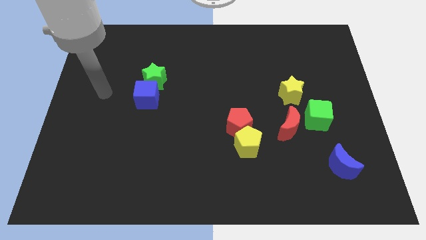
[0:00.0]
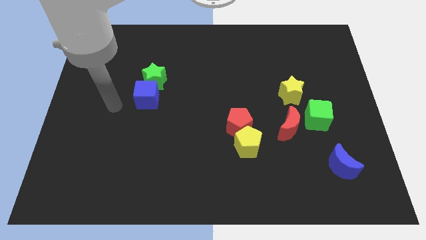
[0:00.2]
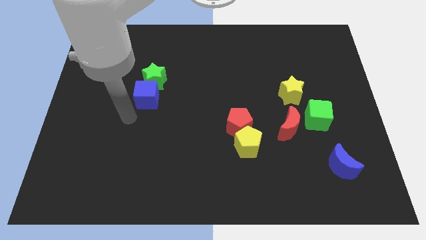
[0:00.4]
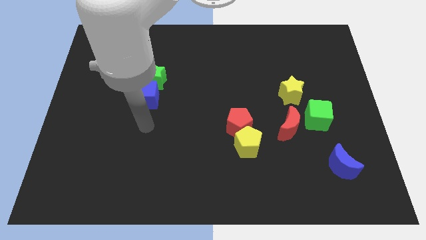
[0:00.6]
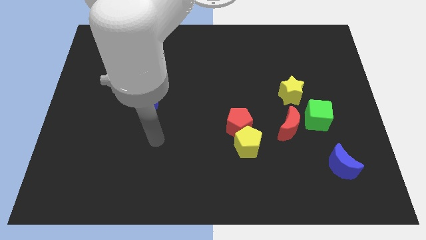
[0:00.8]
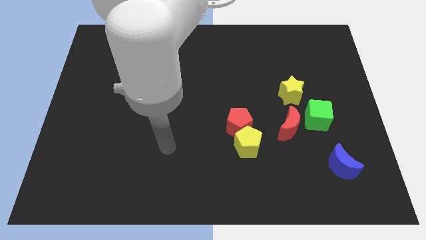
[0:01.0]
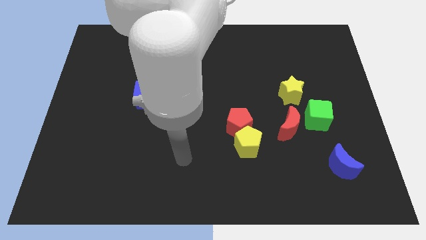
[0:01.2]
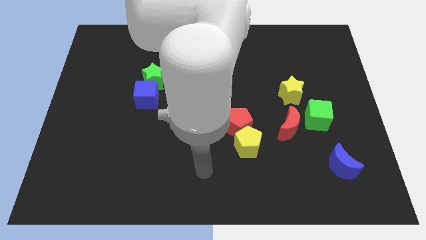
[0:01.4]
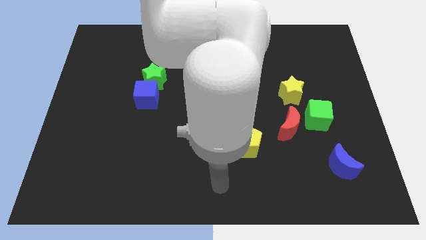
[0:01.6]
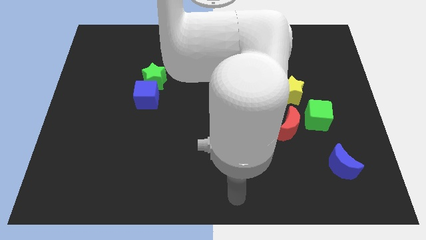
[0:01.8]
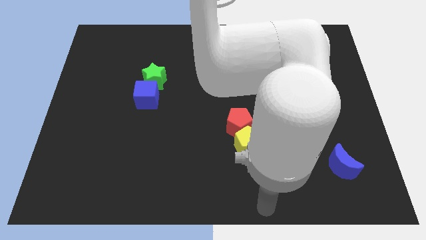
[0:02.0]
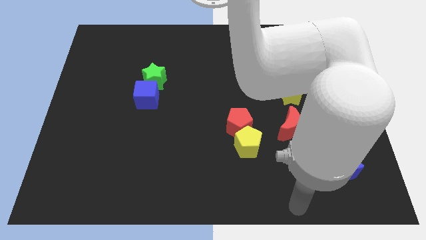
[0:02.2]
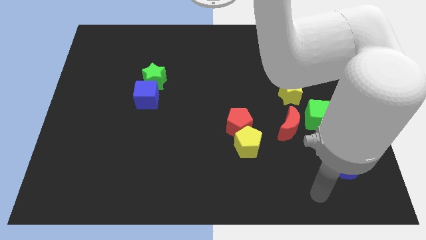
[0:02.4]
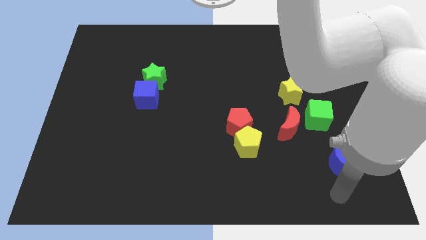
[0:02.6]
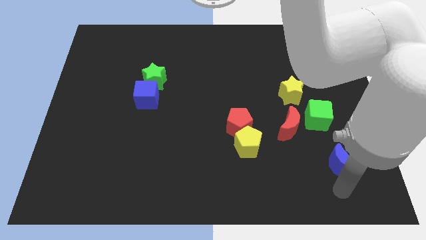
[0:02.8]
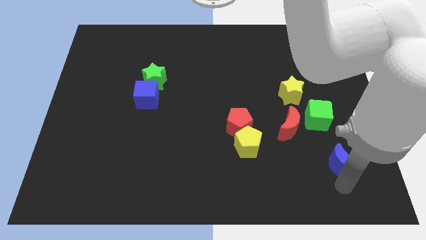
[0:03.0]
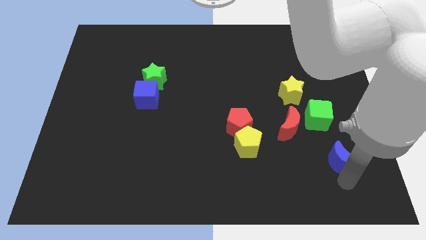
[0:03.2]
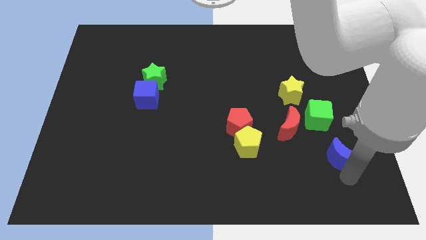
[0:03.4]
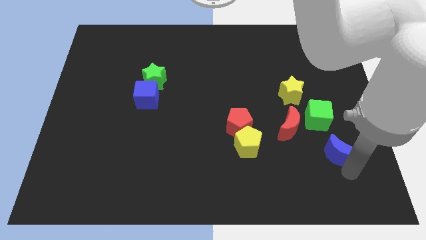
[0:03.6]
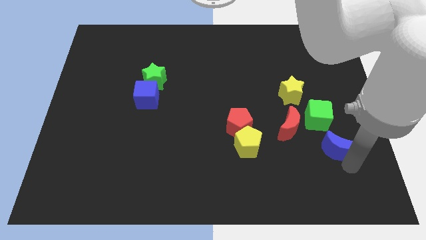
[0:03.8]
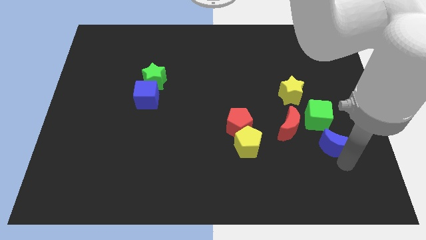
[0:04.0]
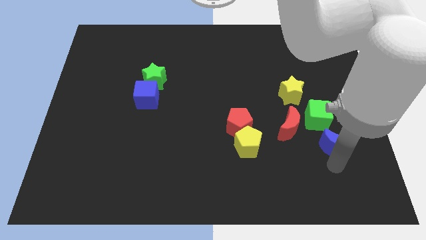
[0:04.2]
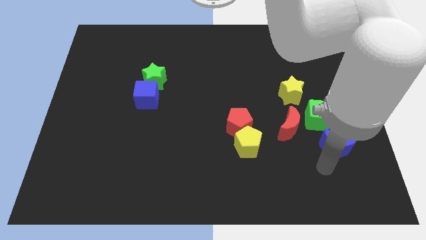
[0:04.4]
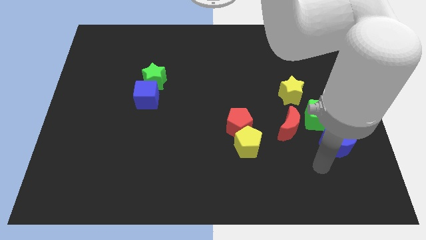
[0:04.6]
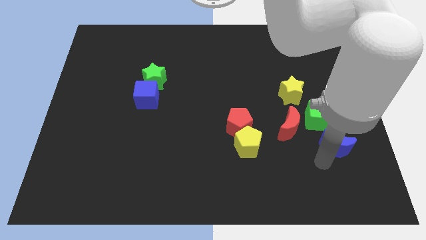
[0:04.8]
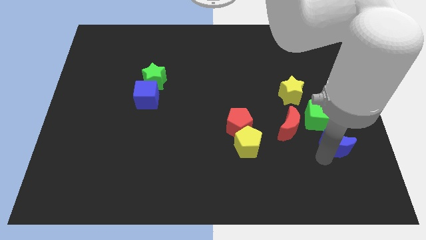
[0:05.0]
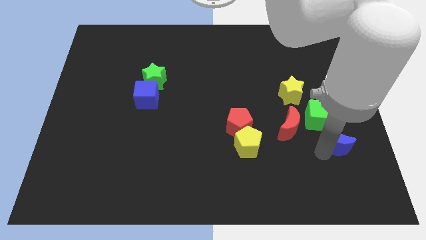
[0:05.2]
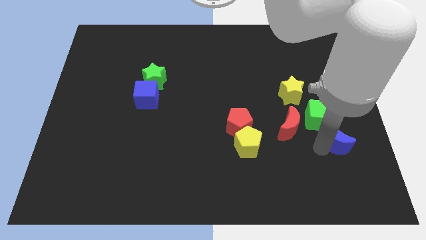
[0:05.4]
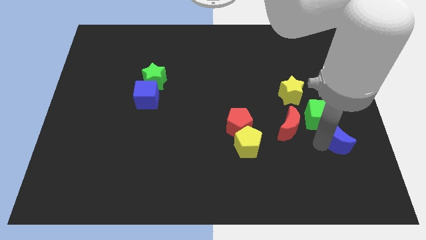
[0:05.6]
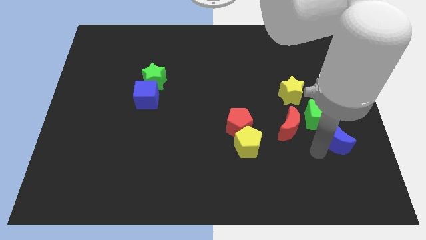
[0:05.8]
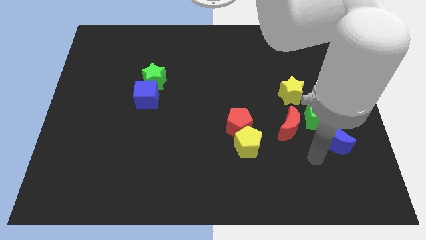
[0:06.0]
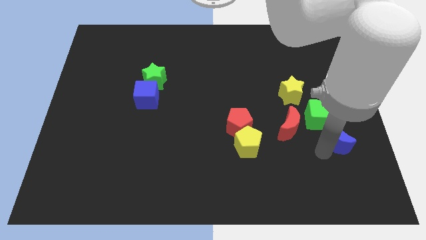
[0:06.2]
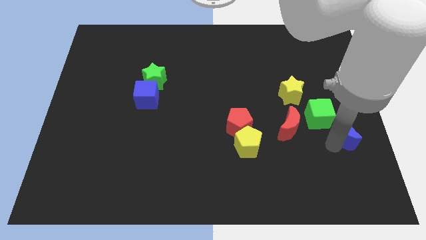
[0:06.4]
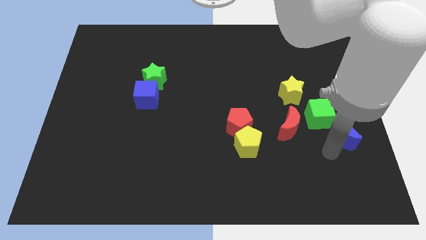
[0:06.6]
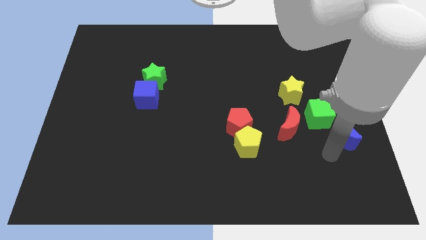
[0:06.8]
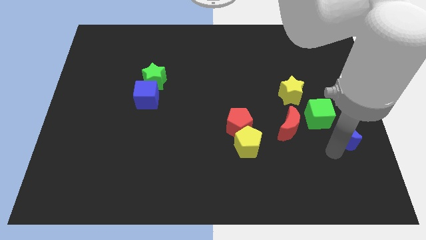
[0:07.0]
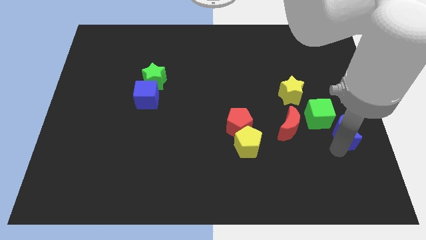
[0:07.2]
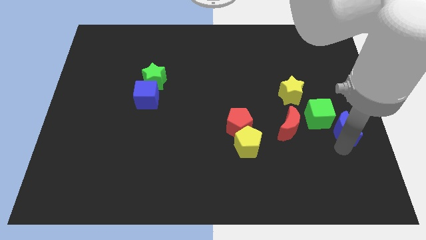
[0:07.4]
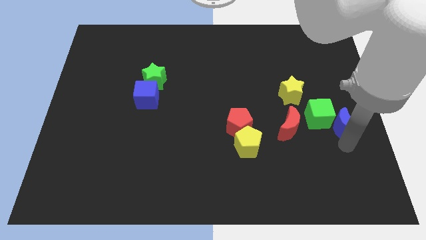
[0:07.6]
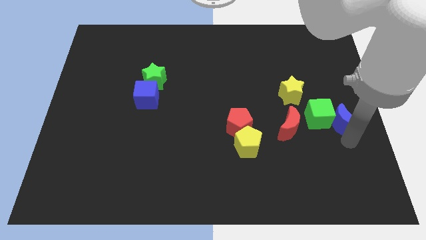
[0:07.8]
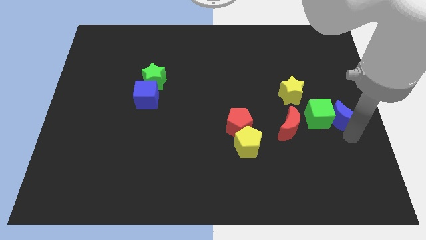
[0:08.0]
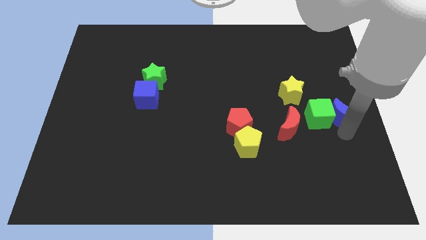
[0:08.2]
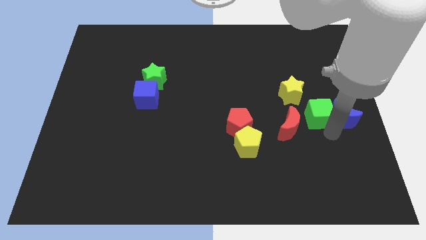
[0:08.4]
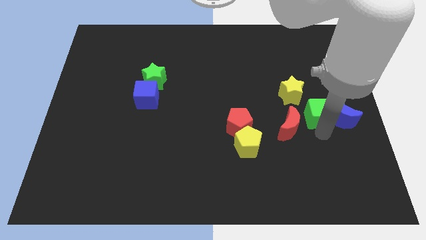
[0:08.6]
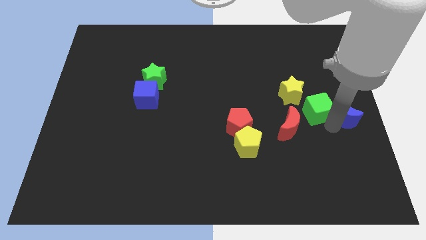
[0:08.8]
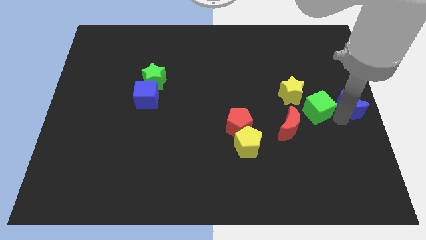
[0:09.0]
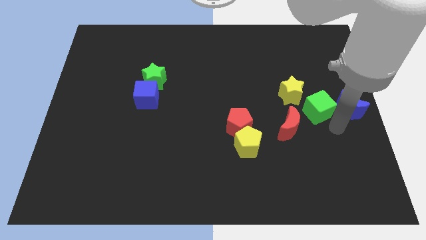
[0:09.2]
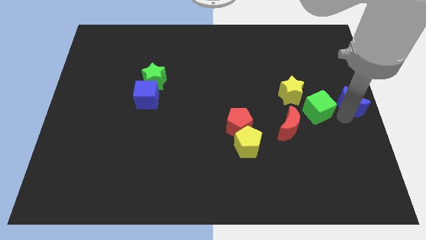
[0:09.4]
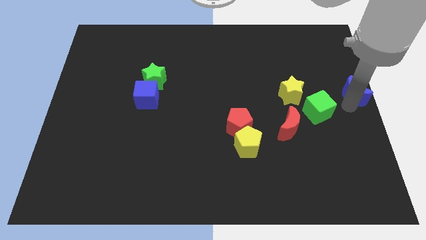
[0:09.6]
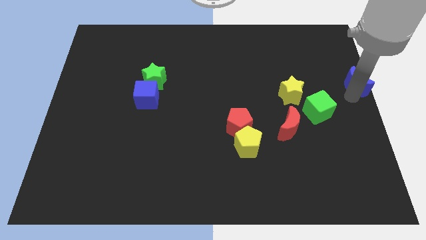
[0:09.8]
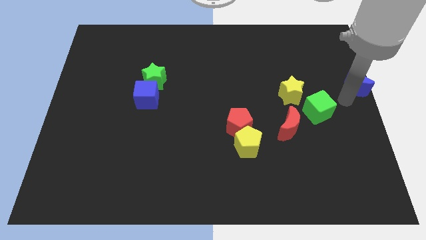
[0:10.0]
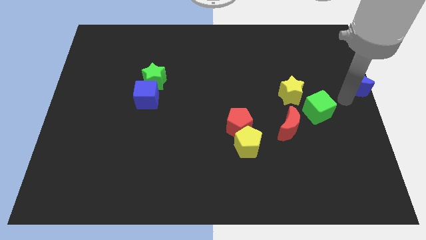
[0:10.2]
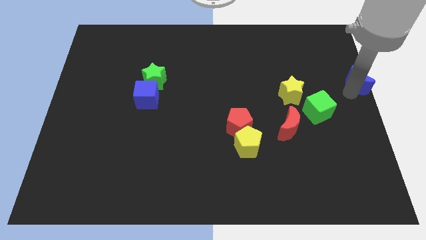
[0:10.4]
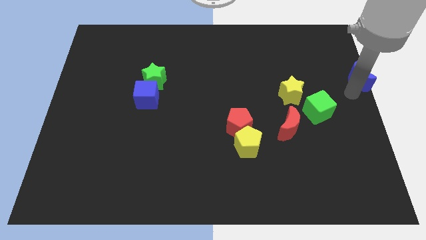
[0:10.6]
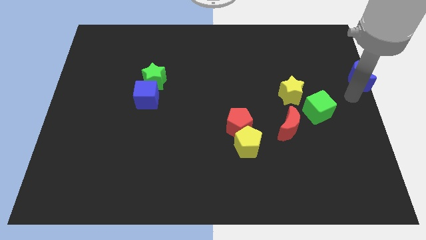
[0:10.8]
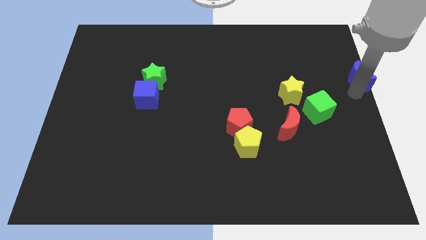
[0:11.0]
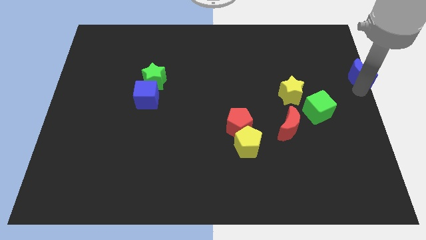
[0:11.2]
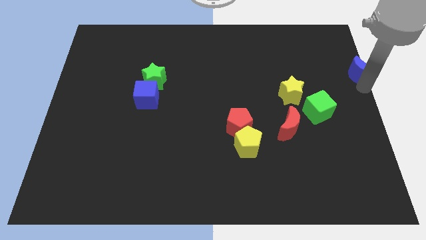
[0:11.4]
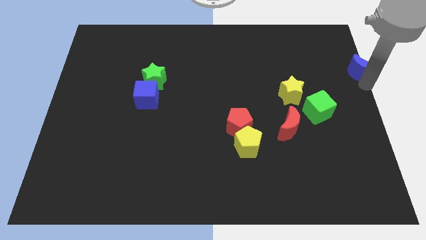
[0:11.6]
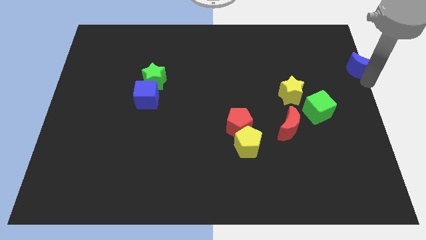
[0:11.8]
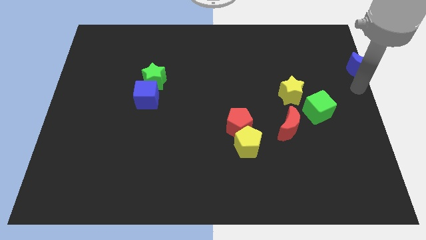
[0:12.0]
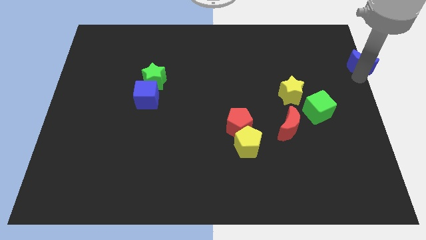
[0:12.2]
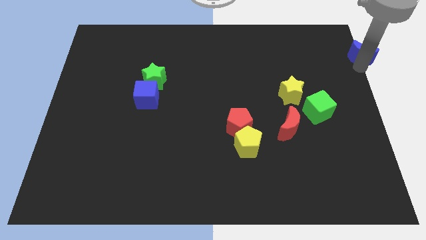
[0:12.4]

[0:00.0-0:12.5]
push the blue moon to the upper right corner
